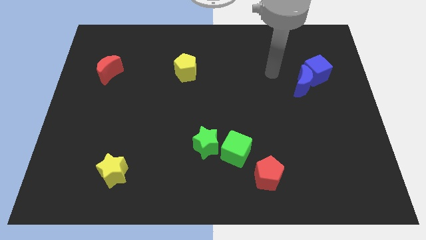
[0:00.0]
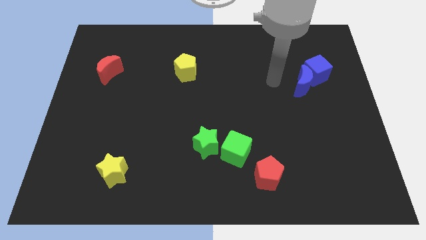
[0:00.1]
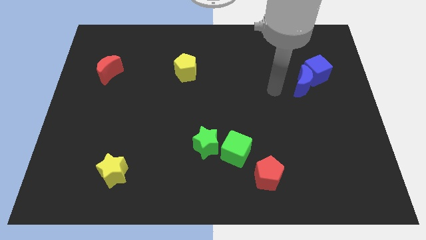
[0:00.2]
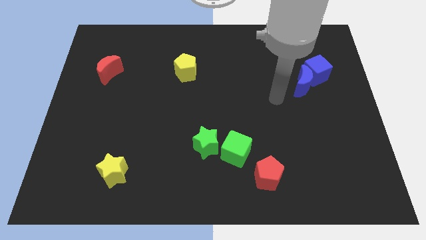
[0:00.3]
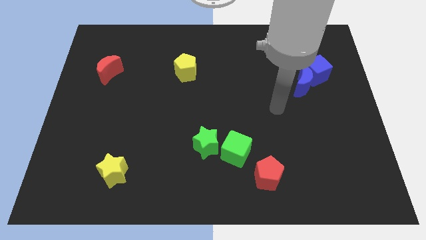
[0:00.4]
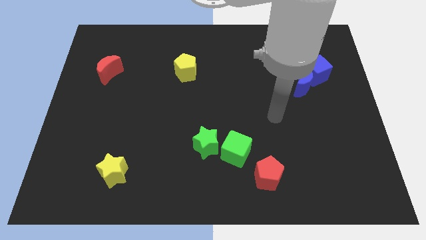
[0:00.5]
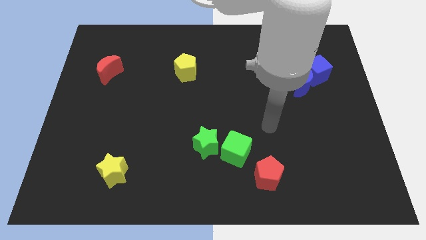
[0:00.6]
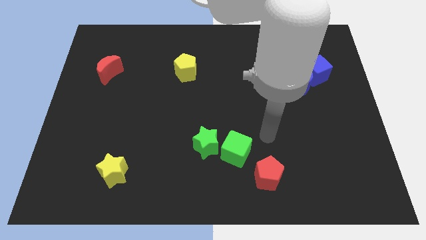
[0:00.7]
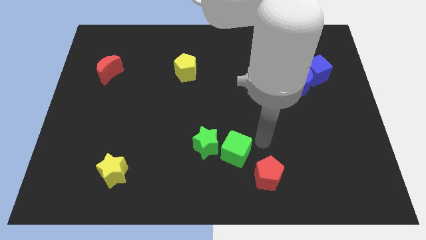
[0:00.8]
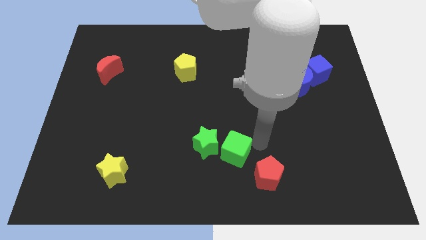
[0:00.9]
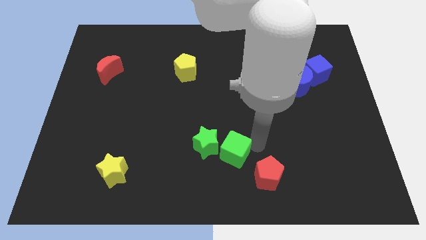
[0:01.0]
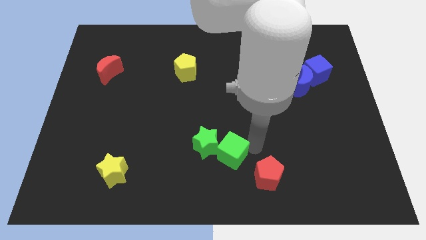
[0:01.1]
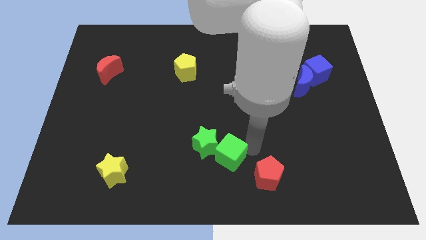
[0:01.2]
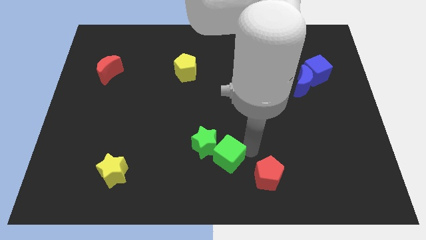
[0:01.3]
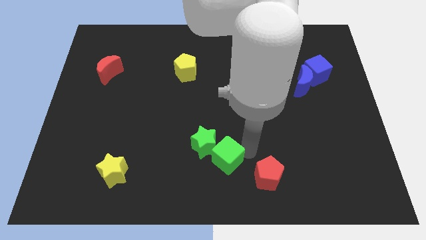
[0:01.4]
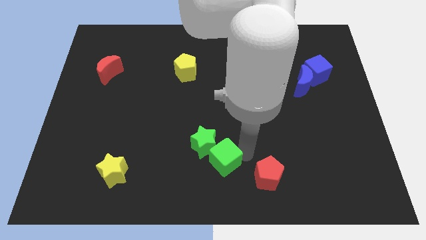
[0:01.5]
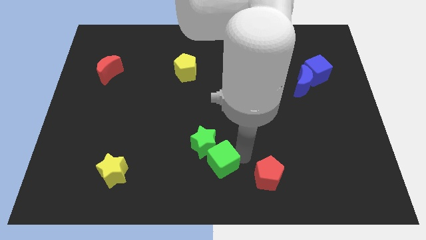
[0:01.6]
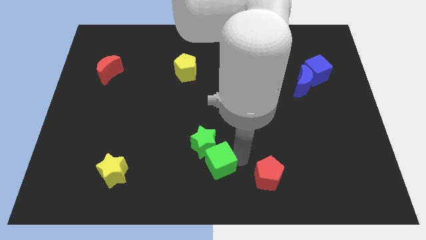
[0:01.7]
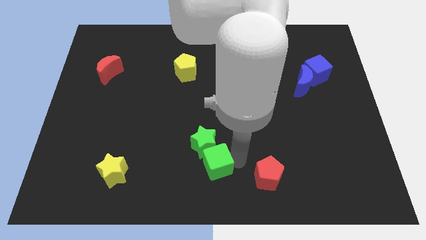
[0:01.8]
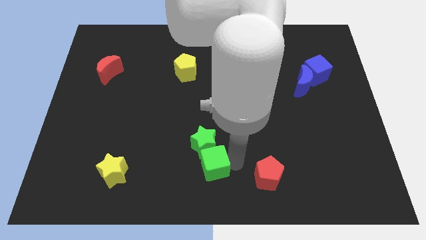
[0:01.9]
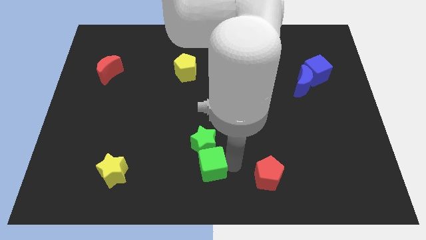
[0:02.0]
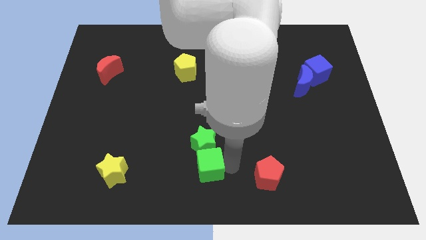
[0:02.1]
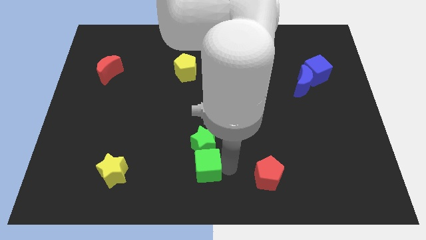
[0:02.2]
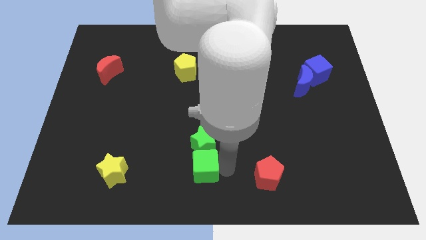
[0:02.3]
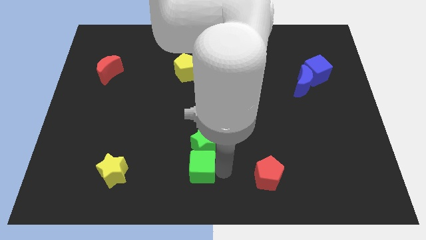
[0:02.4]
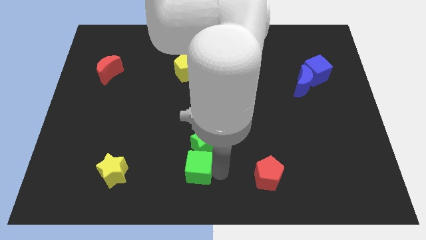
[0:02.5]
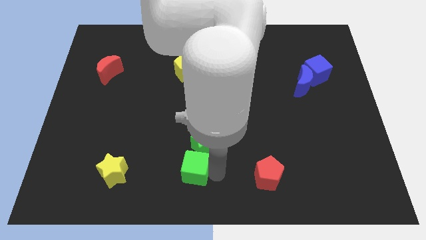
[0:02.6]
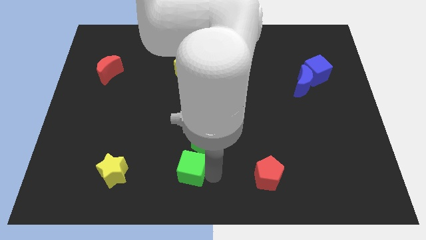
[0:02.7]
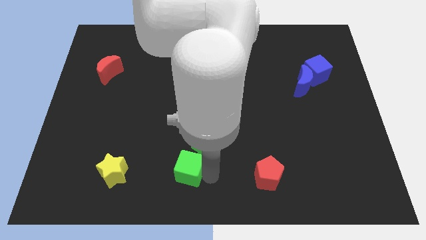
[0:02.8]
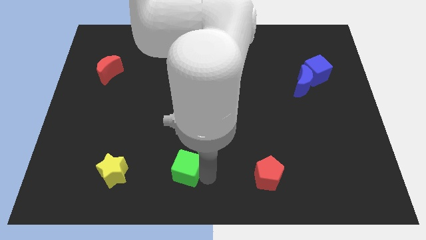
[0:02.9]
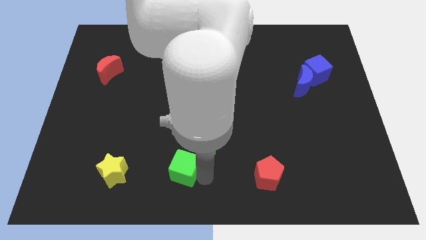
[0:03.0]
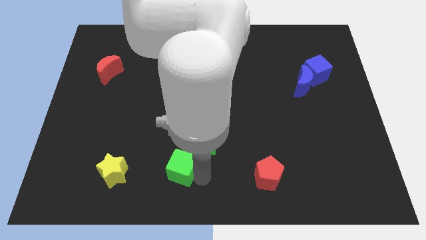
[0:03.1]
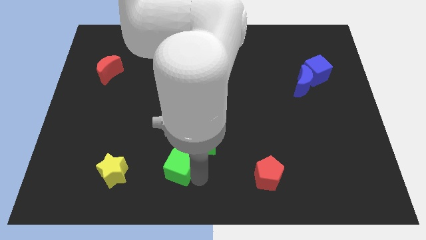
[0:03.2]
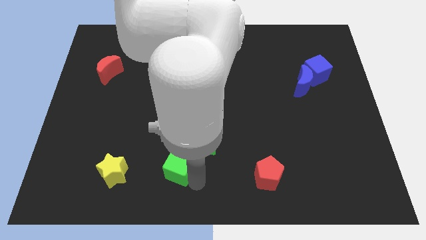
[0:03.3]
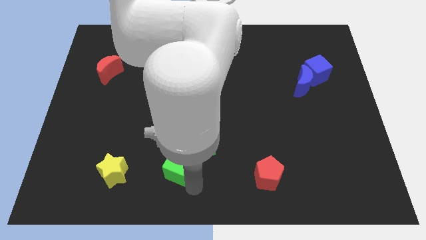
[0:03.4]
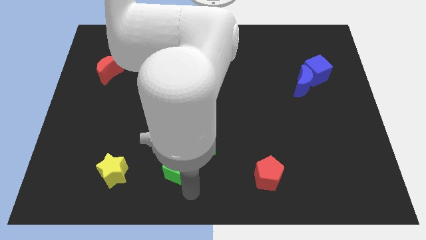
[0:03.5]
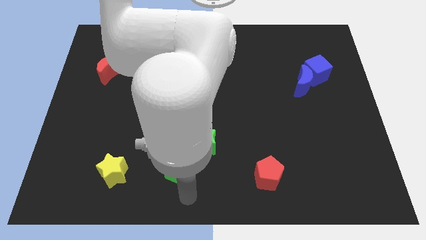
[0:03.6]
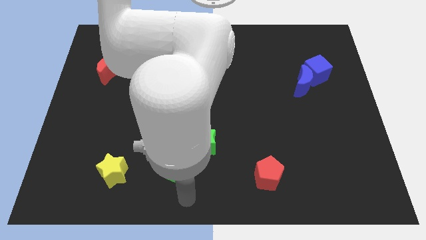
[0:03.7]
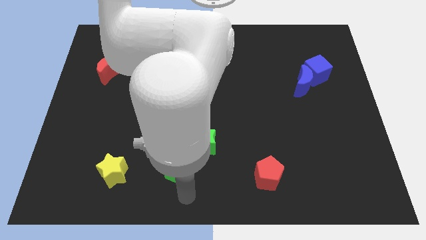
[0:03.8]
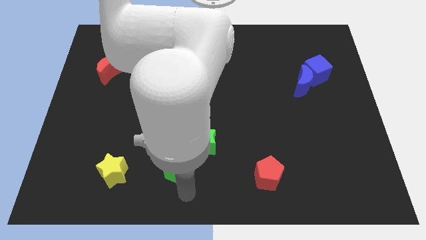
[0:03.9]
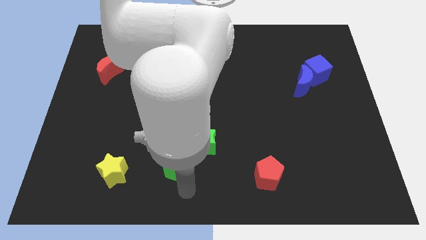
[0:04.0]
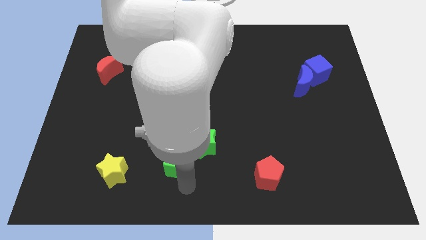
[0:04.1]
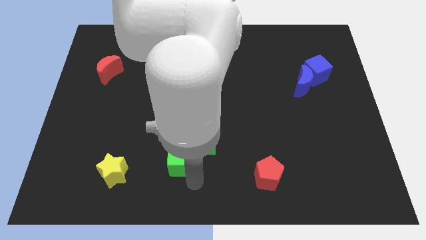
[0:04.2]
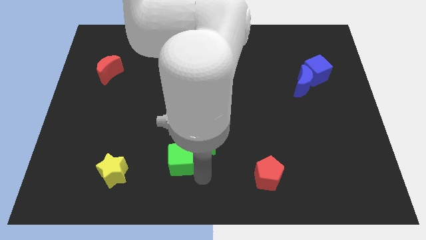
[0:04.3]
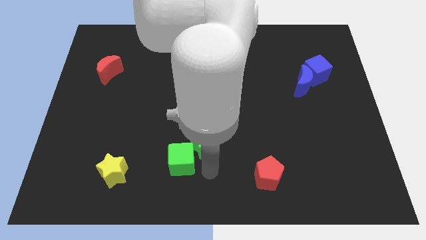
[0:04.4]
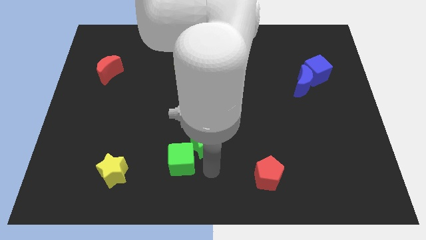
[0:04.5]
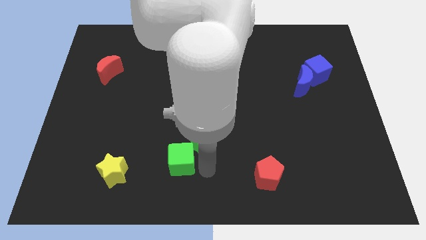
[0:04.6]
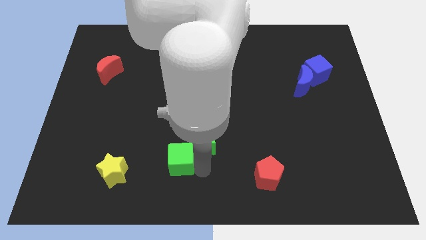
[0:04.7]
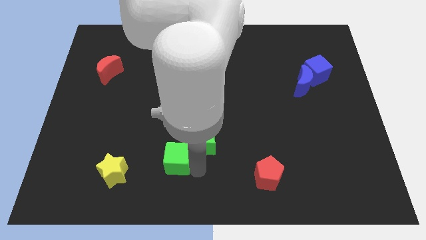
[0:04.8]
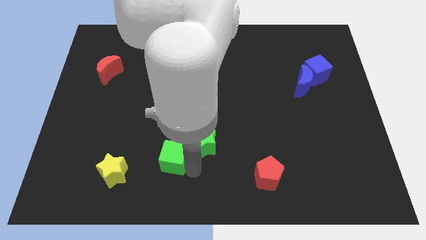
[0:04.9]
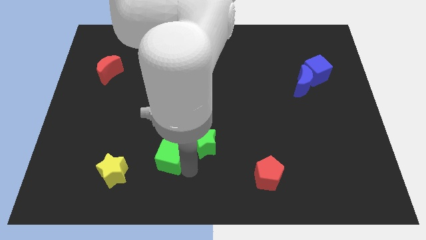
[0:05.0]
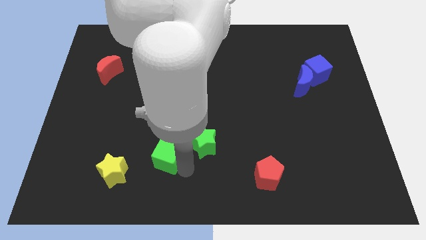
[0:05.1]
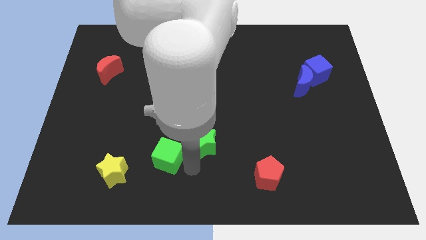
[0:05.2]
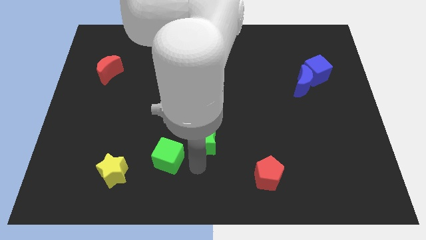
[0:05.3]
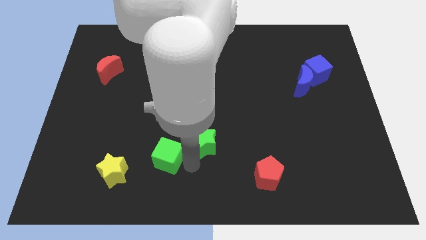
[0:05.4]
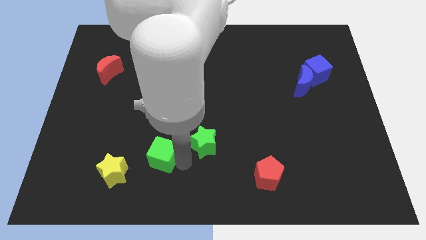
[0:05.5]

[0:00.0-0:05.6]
slide the green cube to the top right side of the yellow star

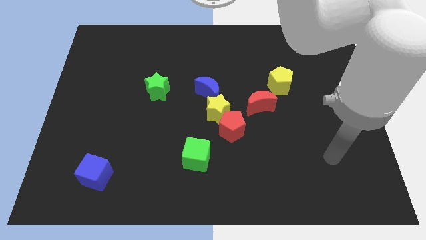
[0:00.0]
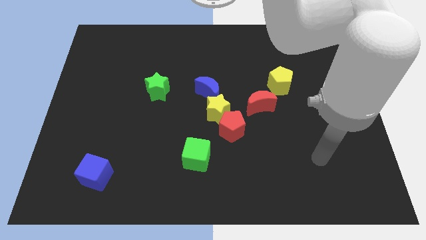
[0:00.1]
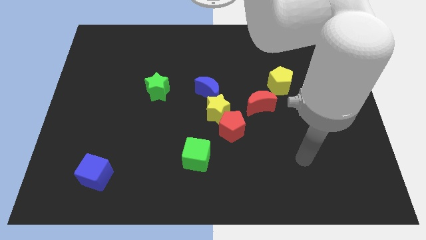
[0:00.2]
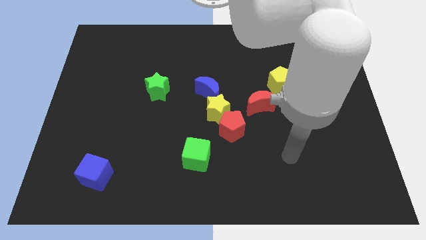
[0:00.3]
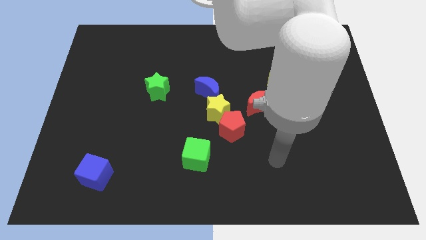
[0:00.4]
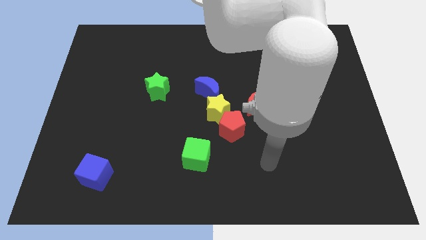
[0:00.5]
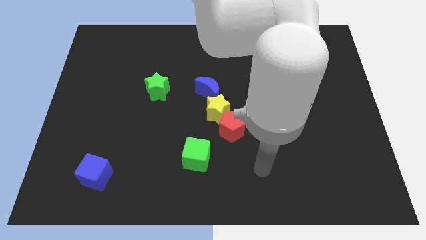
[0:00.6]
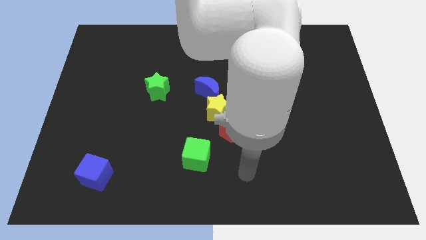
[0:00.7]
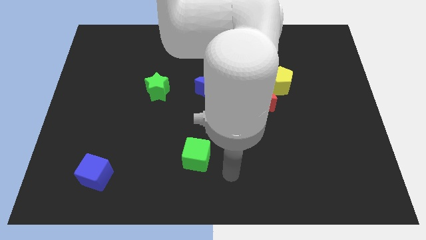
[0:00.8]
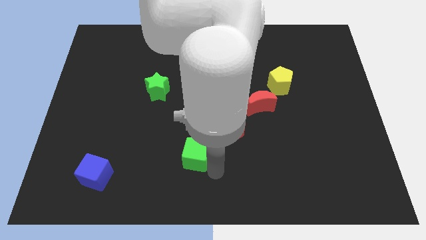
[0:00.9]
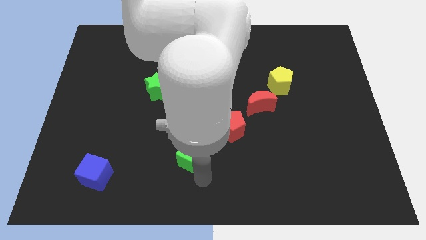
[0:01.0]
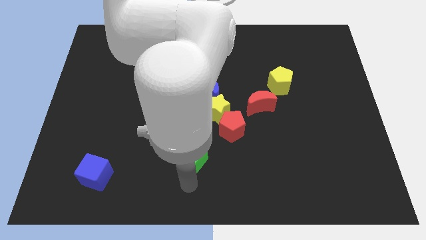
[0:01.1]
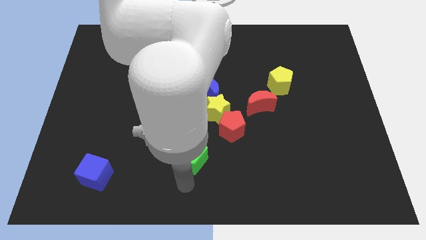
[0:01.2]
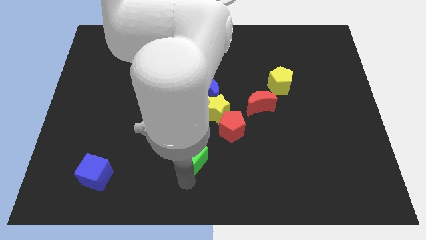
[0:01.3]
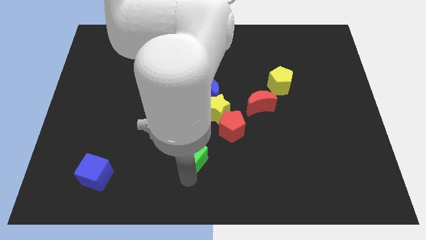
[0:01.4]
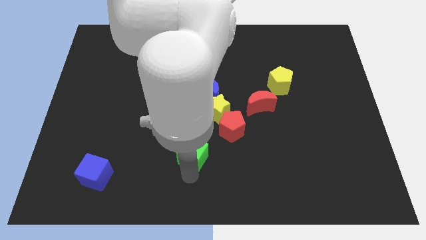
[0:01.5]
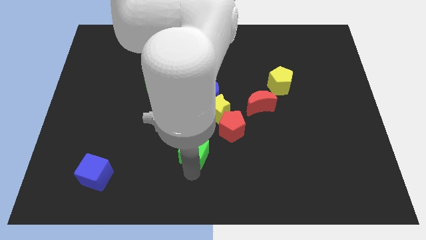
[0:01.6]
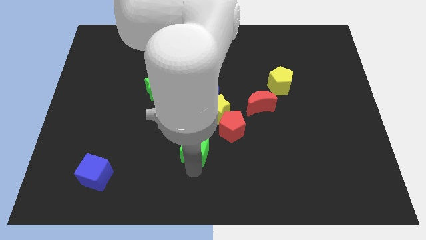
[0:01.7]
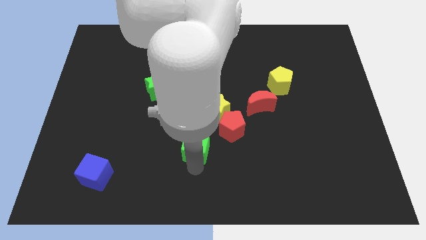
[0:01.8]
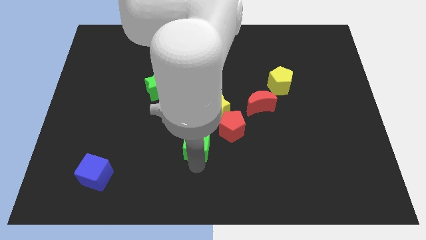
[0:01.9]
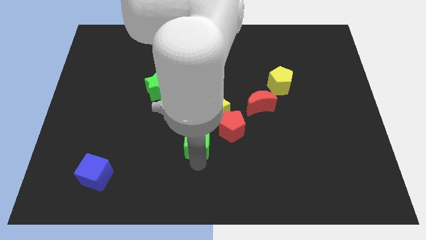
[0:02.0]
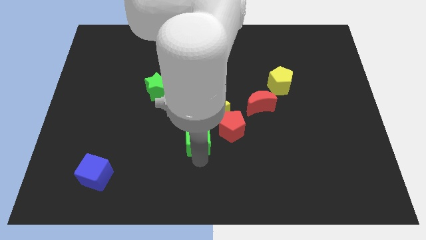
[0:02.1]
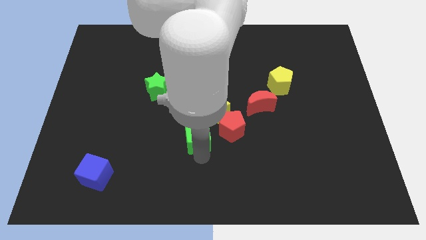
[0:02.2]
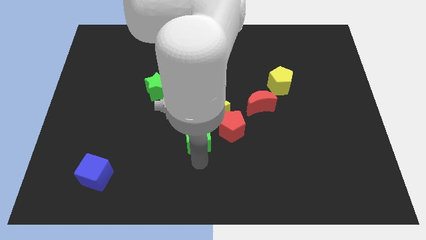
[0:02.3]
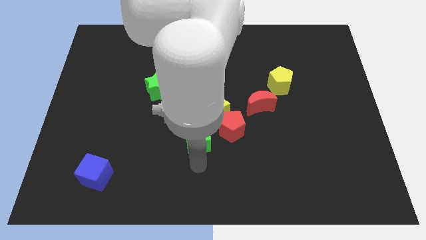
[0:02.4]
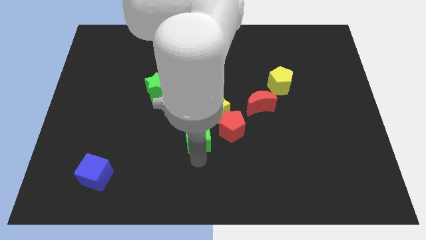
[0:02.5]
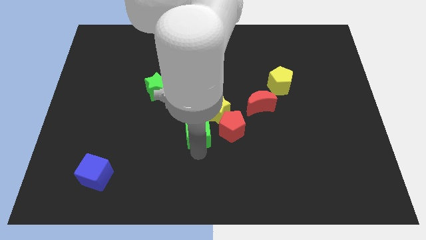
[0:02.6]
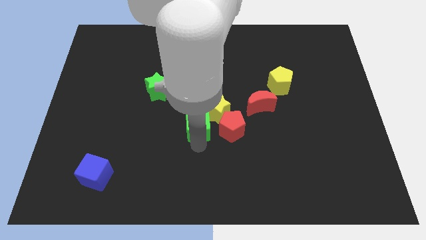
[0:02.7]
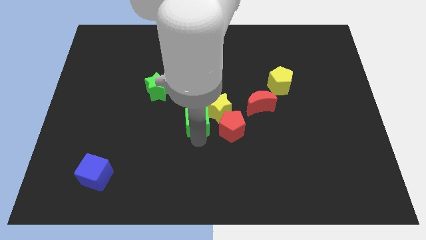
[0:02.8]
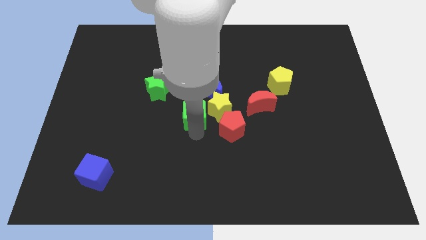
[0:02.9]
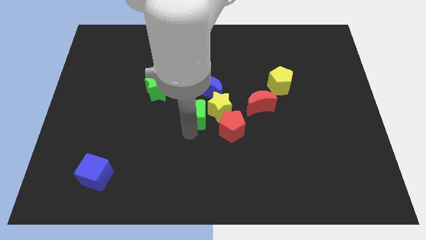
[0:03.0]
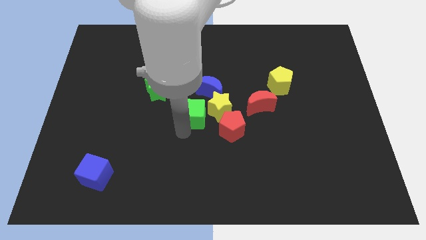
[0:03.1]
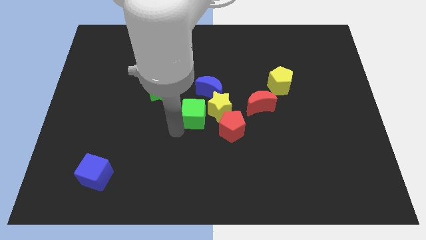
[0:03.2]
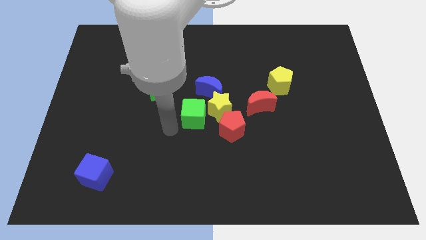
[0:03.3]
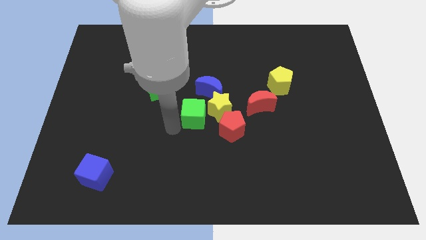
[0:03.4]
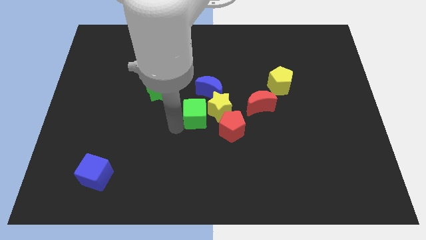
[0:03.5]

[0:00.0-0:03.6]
put the green cube left of the red moon
